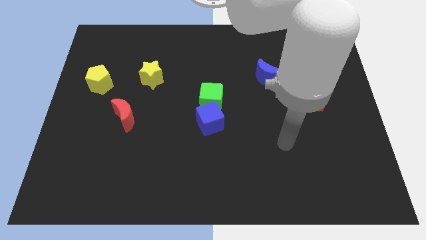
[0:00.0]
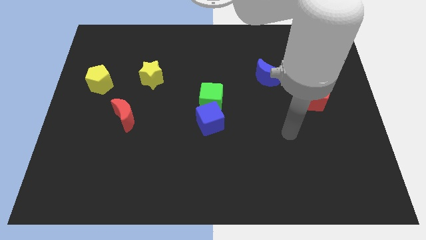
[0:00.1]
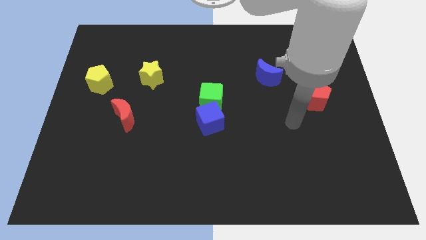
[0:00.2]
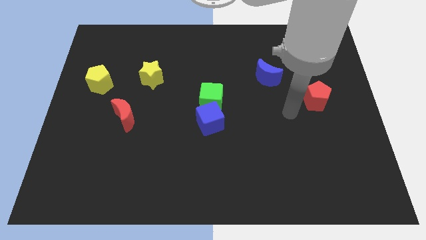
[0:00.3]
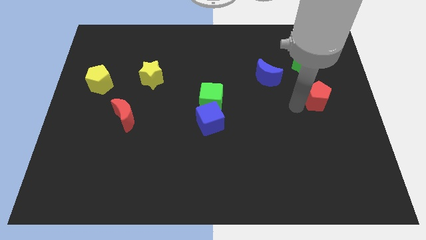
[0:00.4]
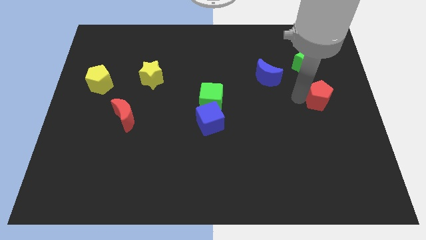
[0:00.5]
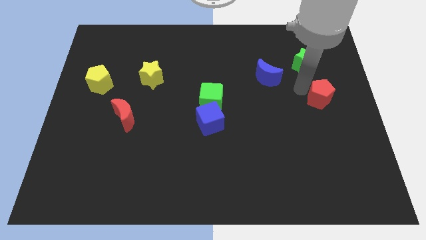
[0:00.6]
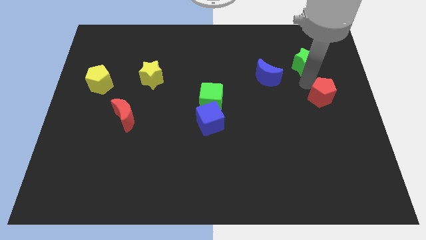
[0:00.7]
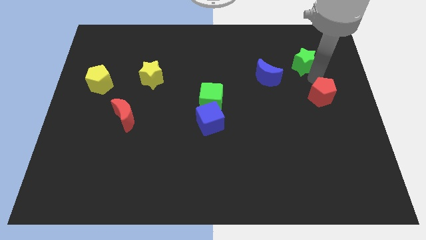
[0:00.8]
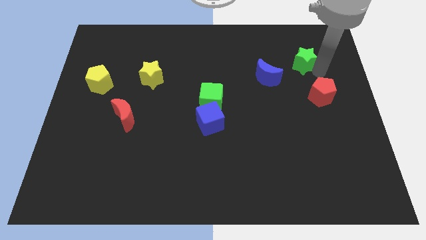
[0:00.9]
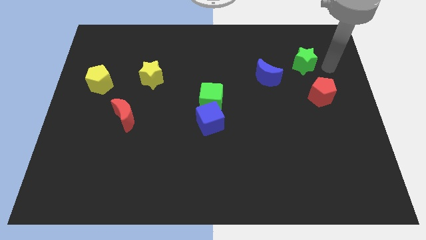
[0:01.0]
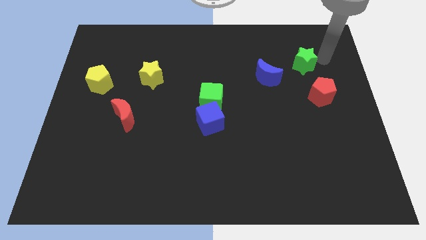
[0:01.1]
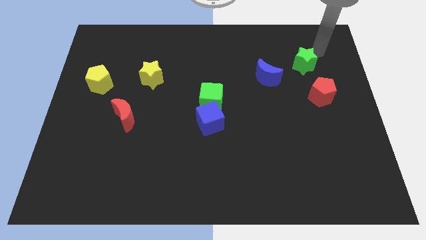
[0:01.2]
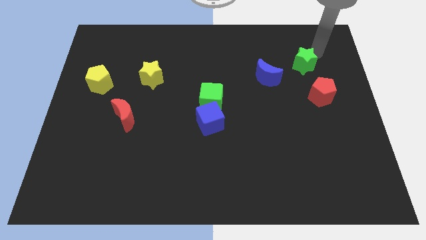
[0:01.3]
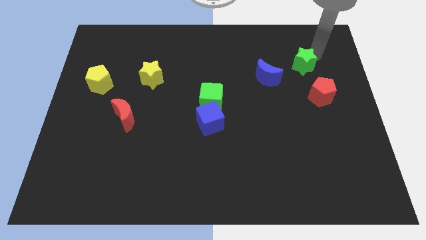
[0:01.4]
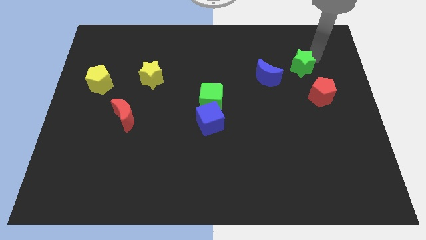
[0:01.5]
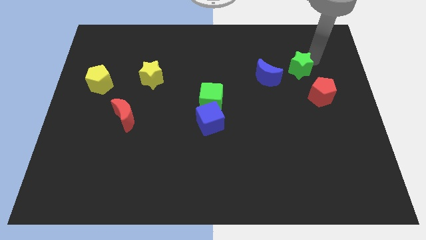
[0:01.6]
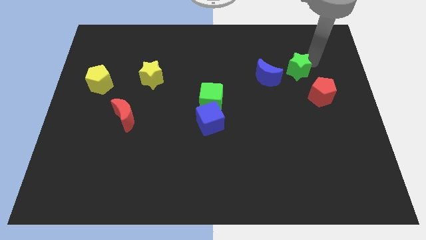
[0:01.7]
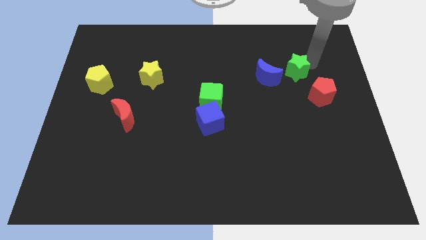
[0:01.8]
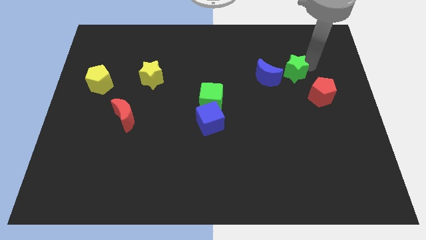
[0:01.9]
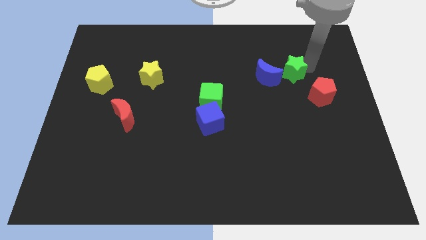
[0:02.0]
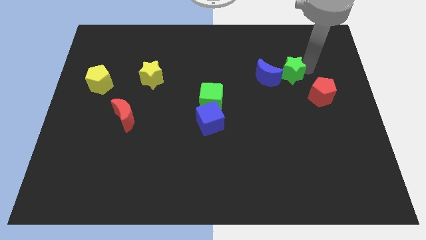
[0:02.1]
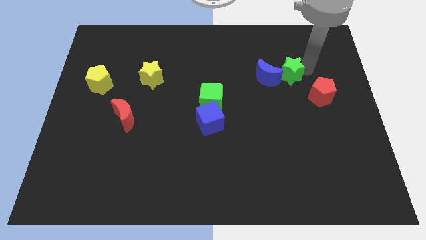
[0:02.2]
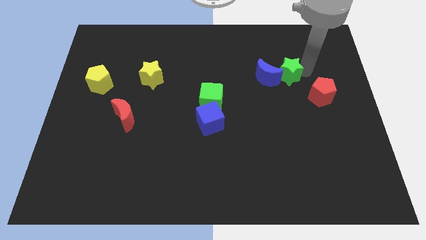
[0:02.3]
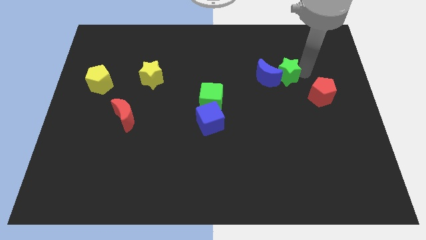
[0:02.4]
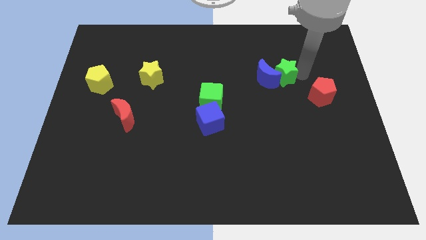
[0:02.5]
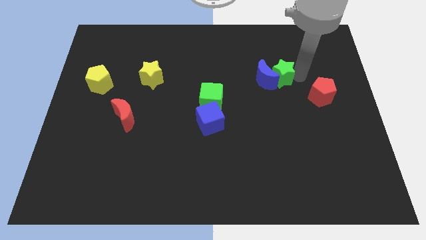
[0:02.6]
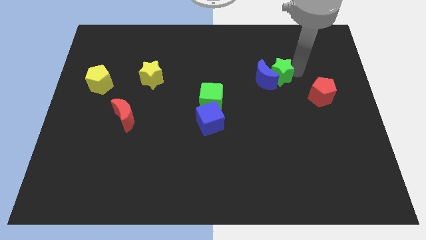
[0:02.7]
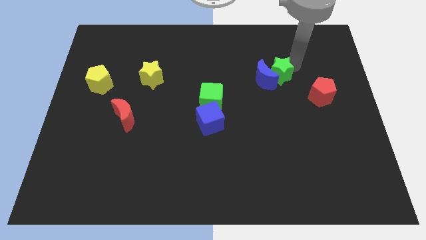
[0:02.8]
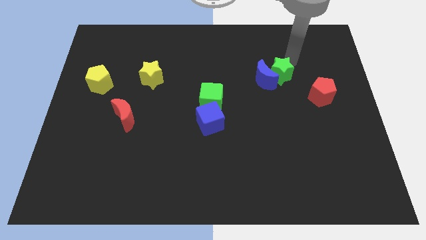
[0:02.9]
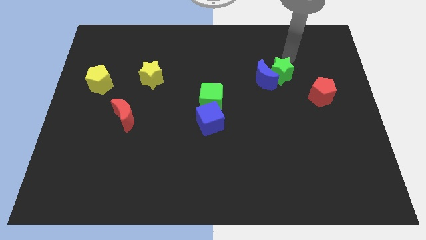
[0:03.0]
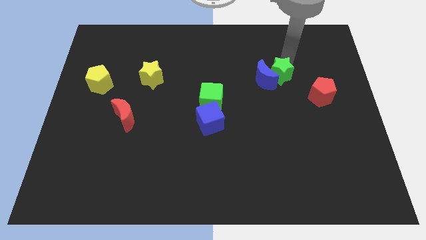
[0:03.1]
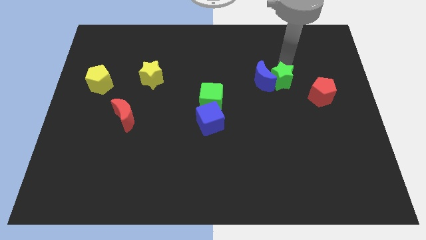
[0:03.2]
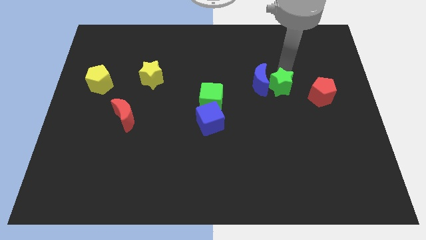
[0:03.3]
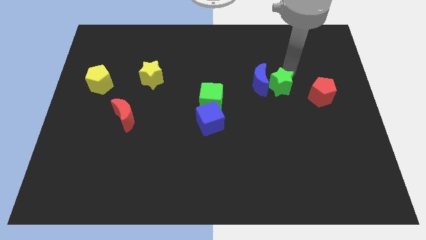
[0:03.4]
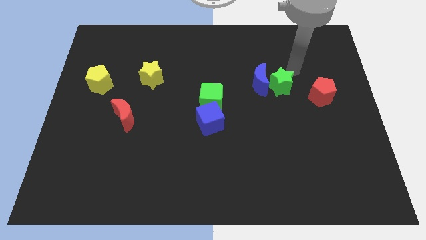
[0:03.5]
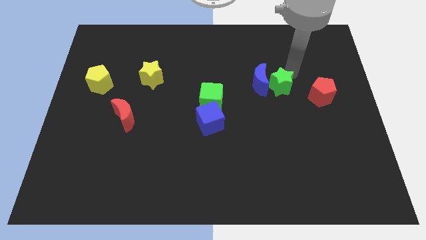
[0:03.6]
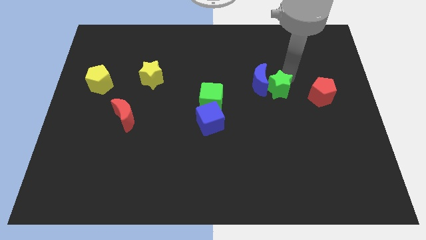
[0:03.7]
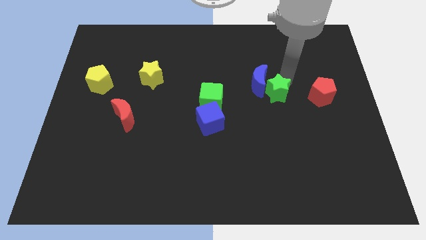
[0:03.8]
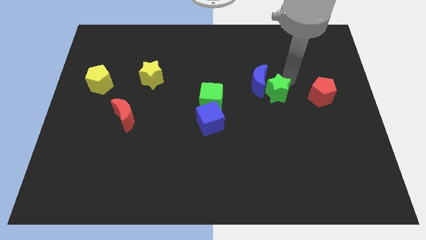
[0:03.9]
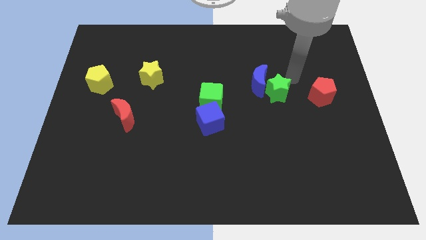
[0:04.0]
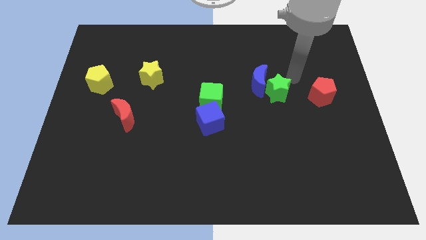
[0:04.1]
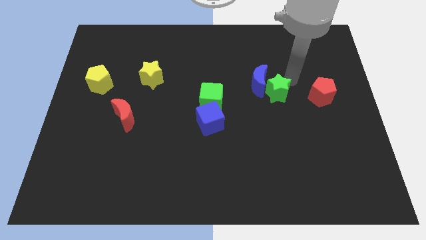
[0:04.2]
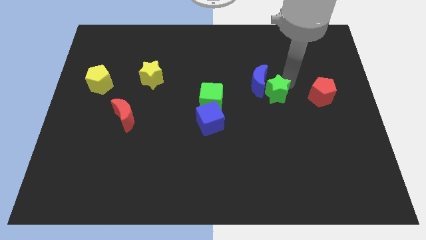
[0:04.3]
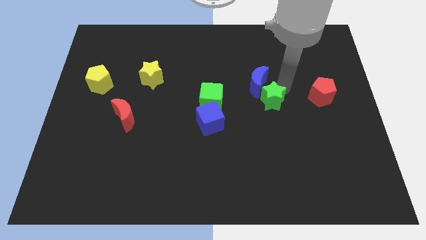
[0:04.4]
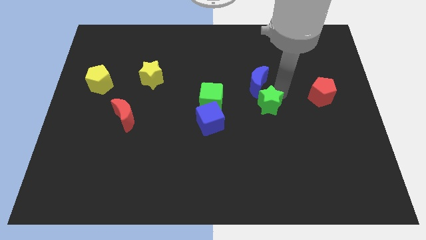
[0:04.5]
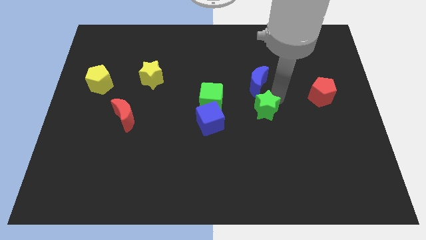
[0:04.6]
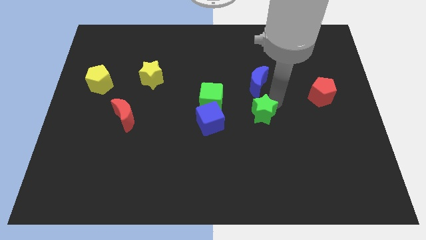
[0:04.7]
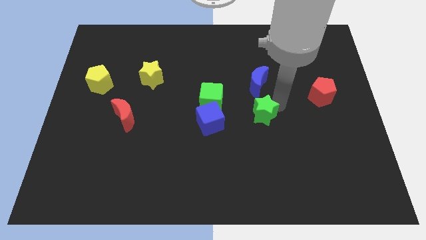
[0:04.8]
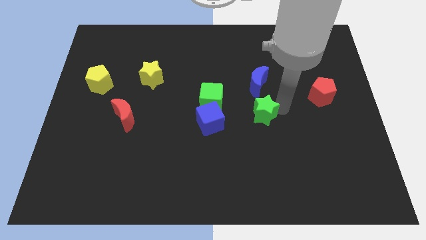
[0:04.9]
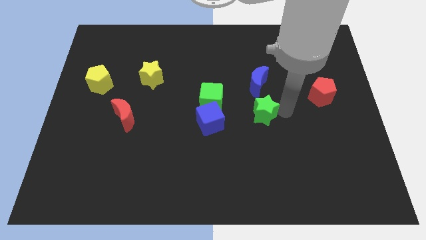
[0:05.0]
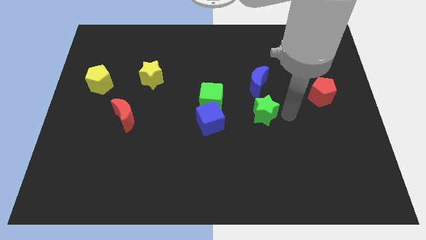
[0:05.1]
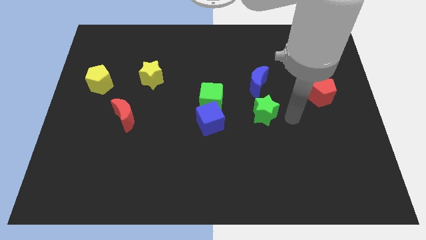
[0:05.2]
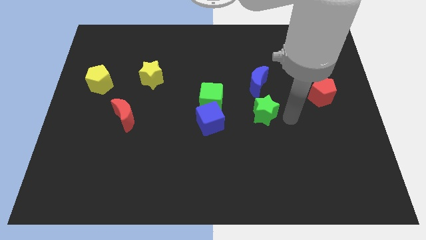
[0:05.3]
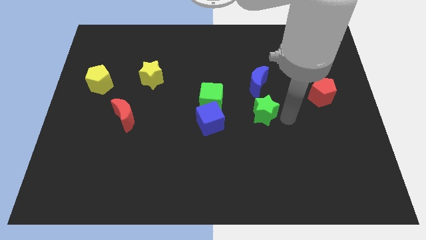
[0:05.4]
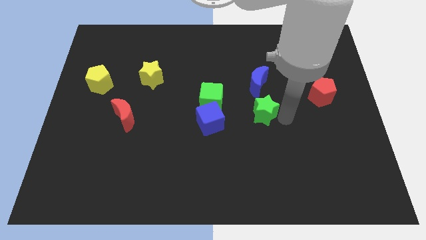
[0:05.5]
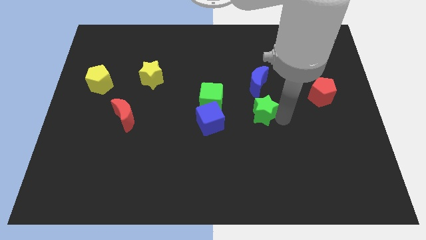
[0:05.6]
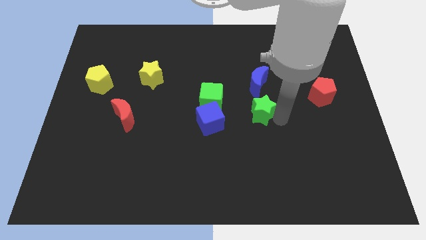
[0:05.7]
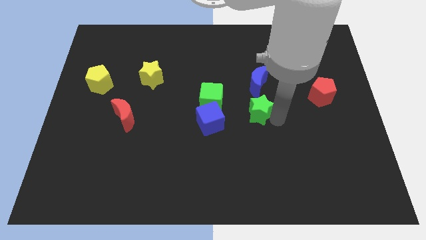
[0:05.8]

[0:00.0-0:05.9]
move the green star downwards and to the left

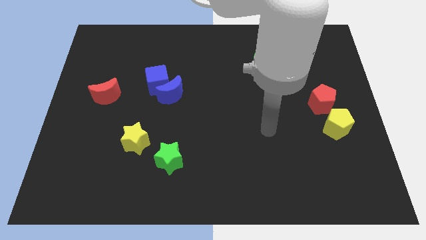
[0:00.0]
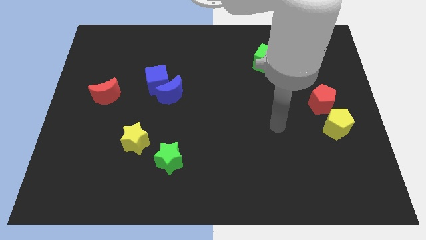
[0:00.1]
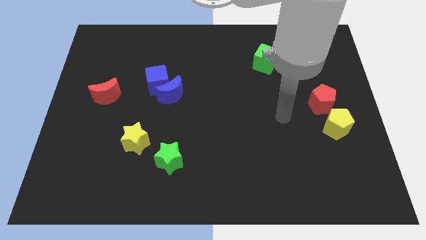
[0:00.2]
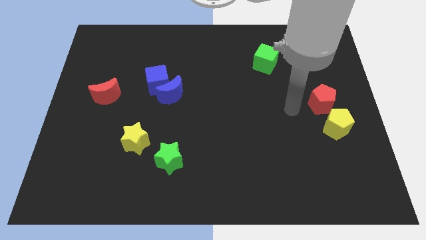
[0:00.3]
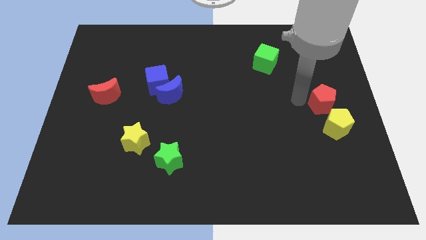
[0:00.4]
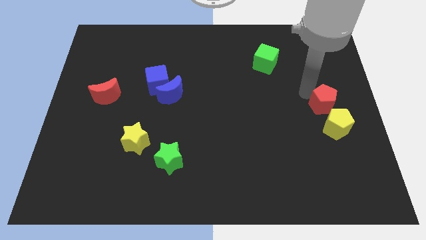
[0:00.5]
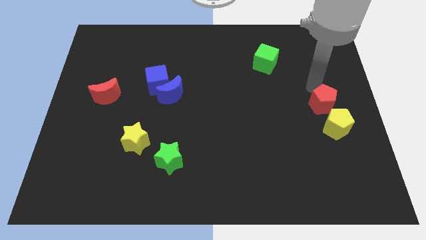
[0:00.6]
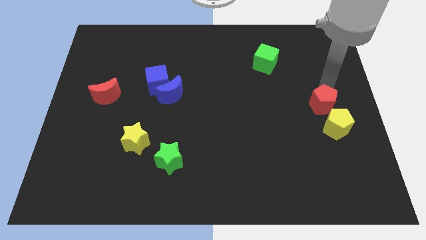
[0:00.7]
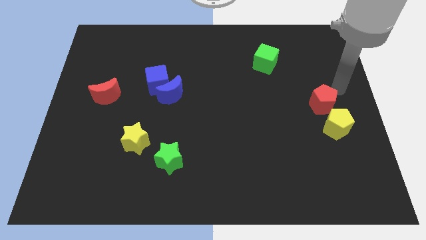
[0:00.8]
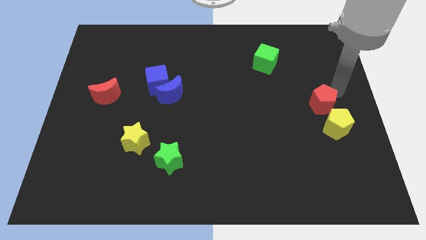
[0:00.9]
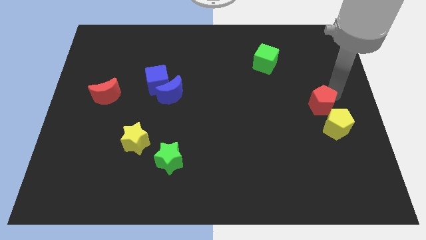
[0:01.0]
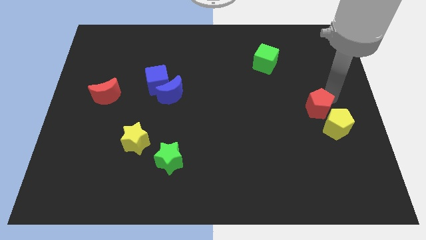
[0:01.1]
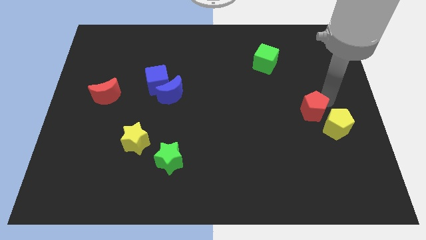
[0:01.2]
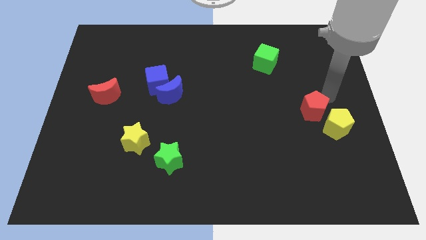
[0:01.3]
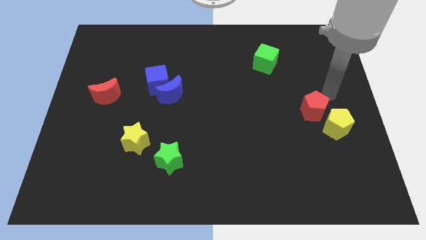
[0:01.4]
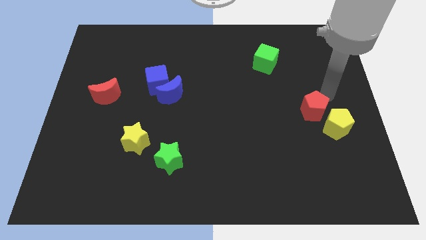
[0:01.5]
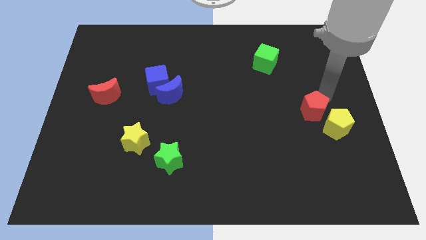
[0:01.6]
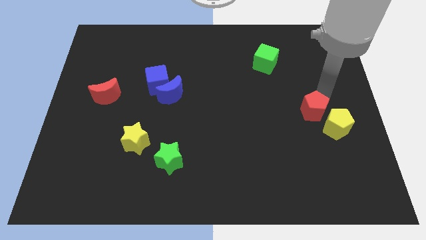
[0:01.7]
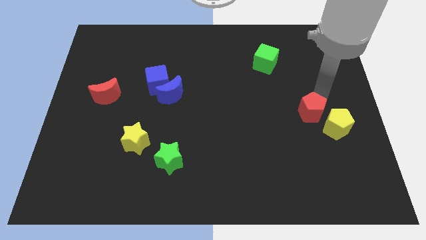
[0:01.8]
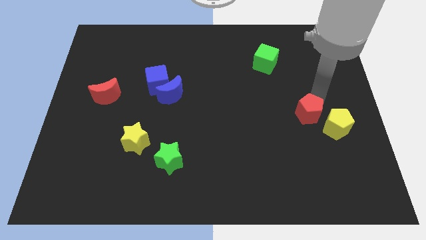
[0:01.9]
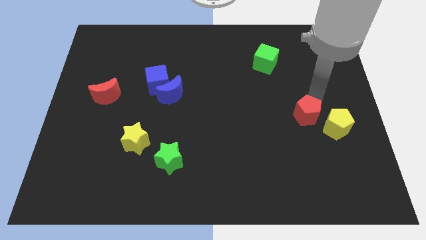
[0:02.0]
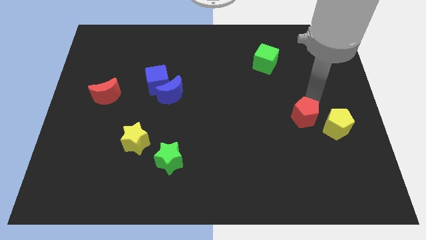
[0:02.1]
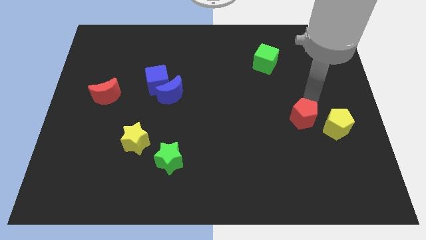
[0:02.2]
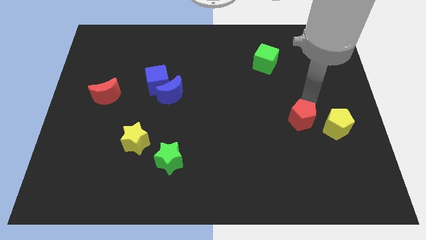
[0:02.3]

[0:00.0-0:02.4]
slightly push the red pentagon downwards and left diagonally
